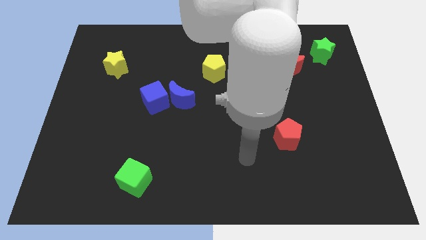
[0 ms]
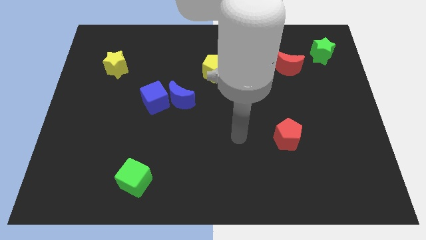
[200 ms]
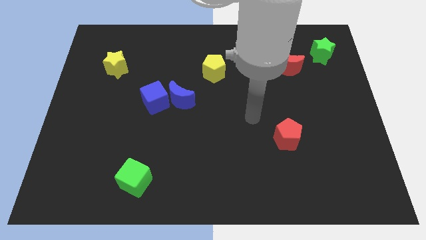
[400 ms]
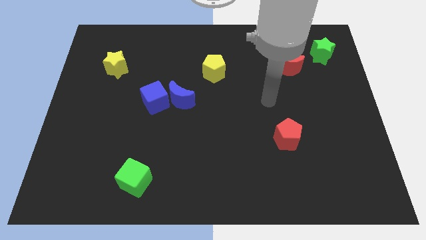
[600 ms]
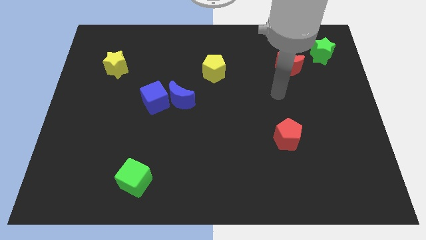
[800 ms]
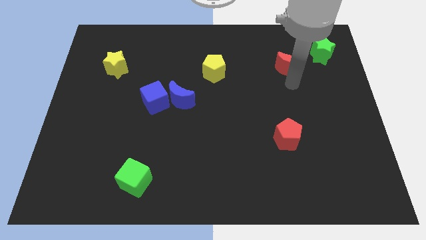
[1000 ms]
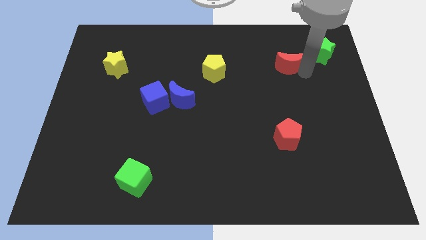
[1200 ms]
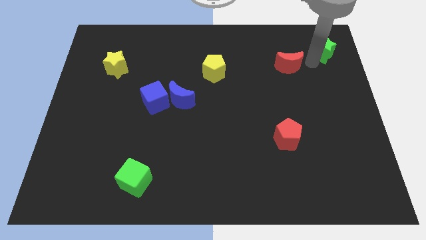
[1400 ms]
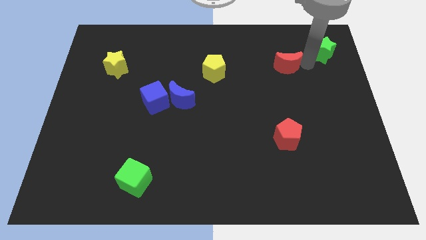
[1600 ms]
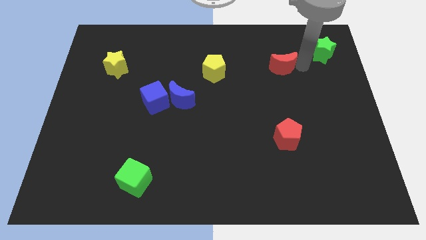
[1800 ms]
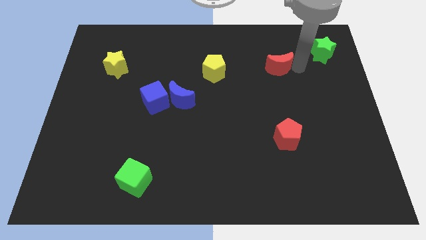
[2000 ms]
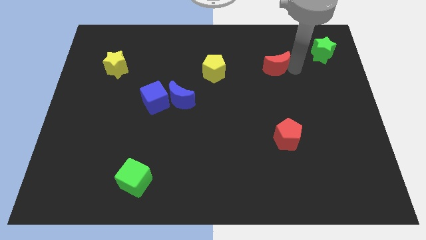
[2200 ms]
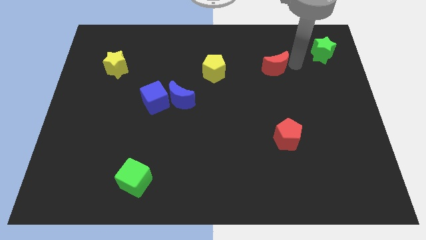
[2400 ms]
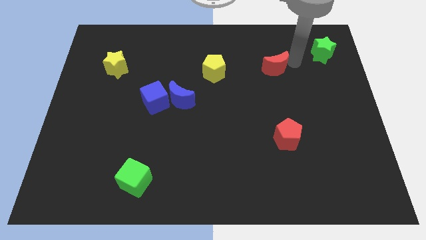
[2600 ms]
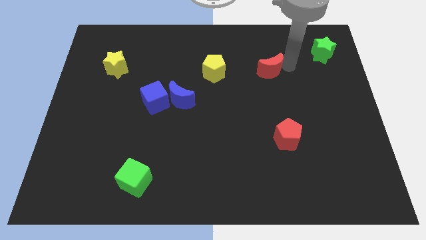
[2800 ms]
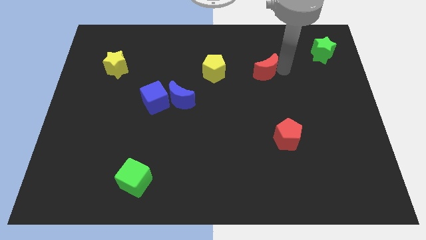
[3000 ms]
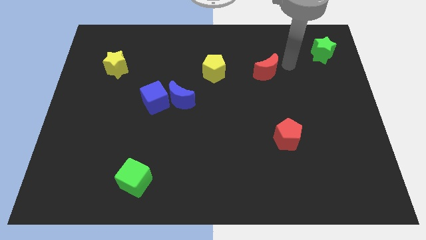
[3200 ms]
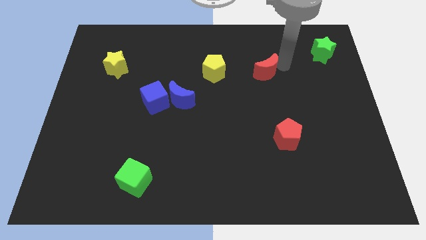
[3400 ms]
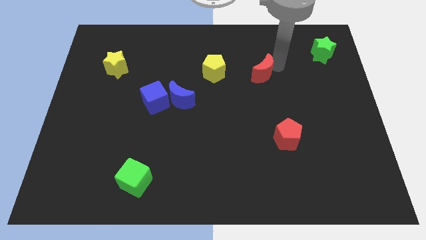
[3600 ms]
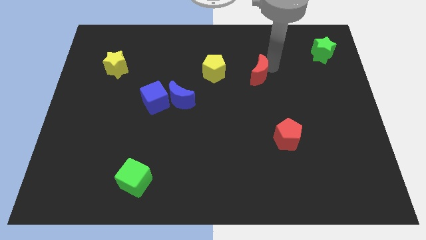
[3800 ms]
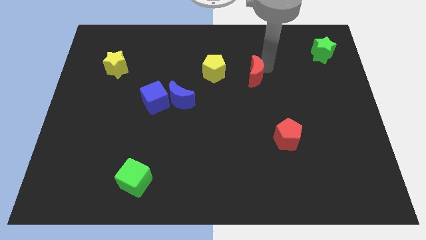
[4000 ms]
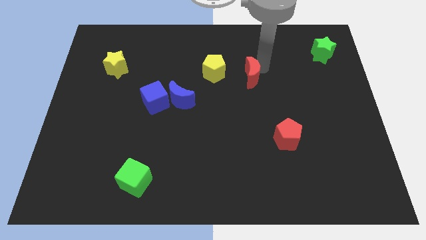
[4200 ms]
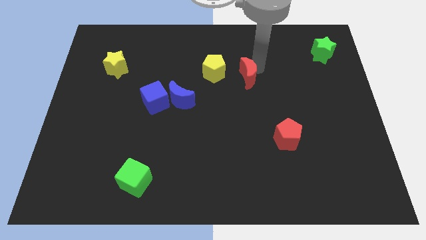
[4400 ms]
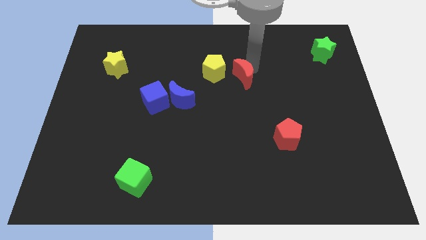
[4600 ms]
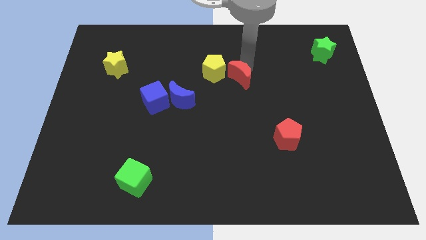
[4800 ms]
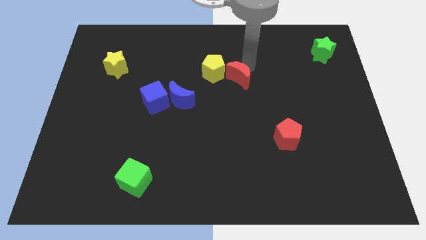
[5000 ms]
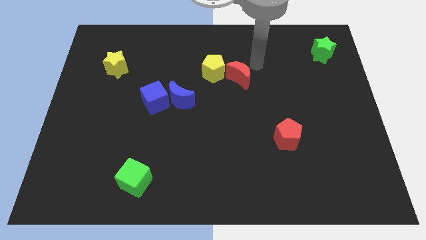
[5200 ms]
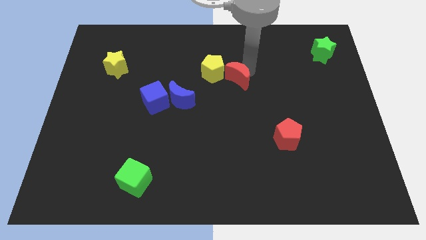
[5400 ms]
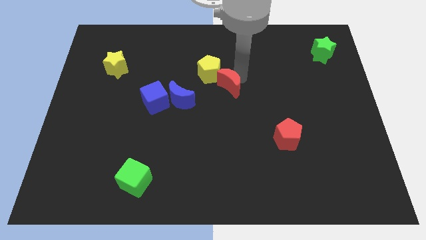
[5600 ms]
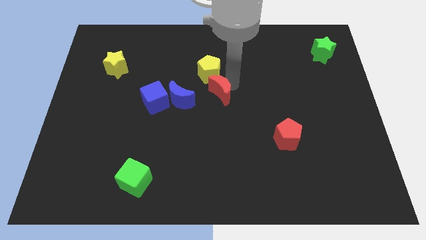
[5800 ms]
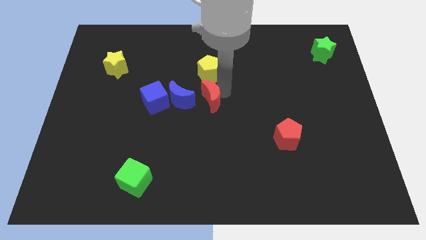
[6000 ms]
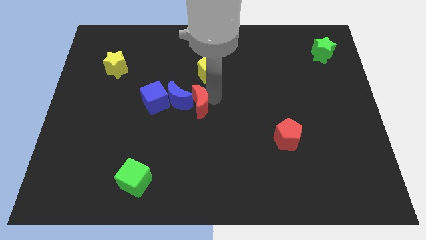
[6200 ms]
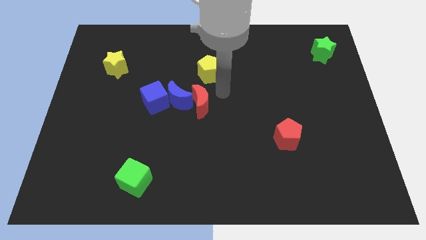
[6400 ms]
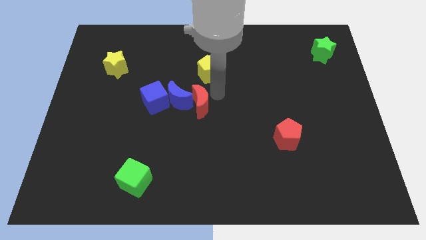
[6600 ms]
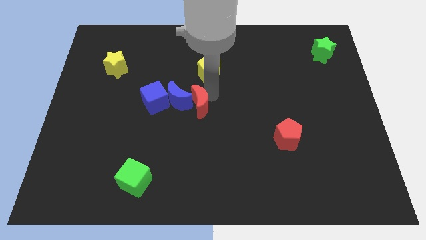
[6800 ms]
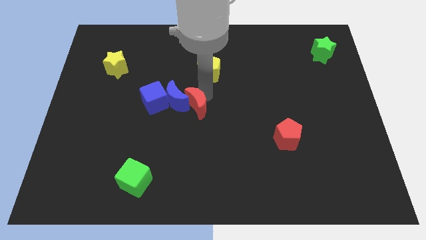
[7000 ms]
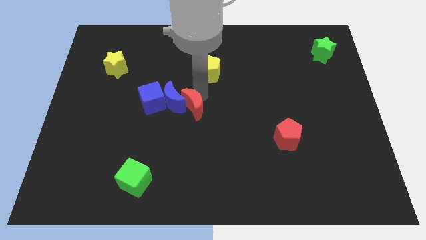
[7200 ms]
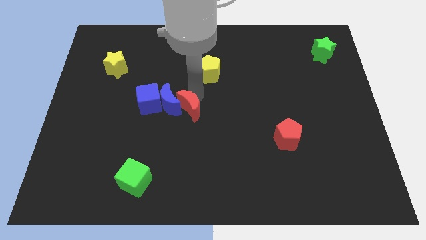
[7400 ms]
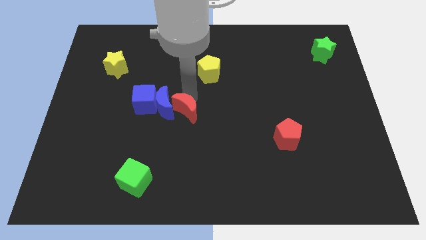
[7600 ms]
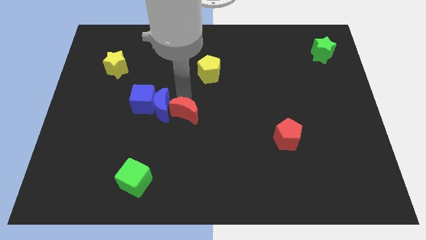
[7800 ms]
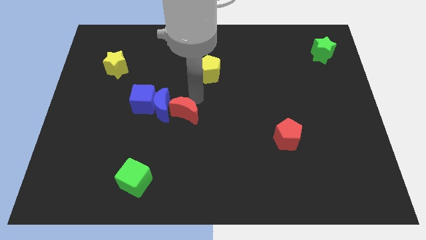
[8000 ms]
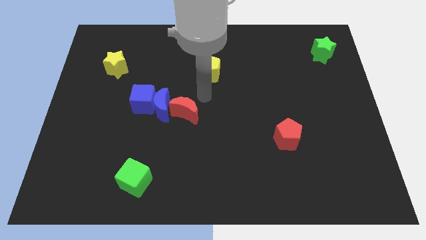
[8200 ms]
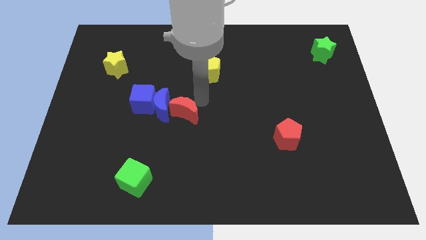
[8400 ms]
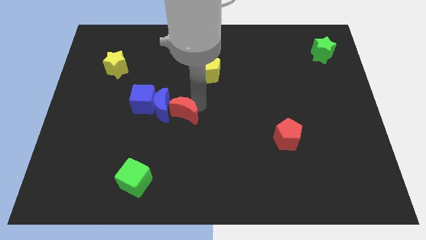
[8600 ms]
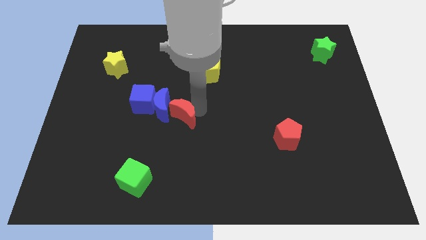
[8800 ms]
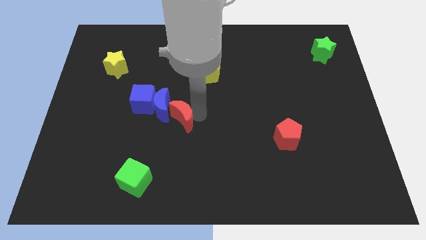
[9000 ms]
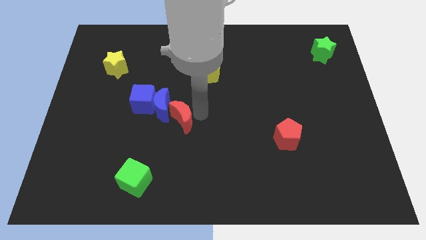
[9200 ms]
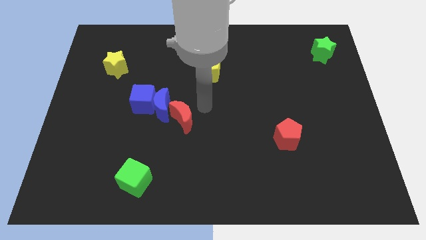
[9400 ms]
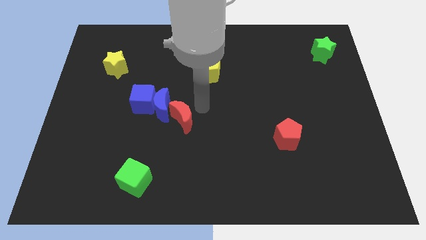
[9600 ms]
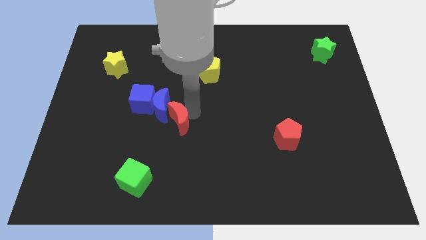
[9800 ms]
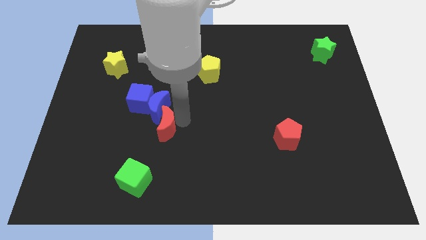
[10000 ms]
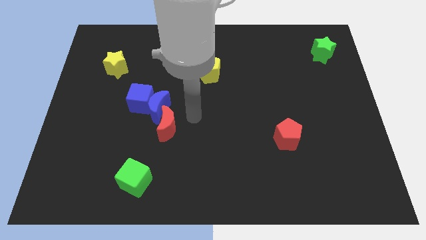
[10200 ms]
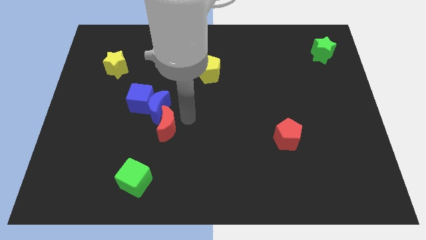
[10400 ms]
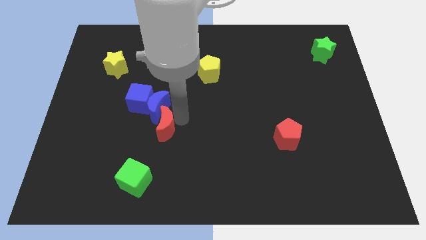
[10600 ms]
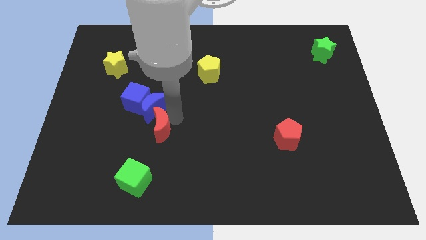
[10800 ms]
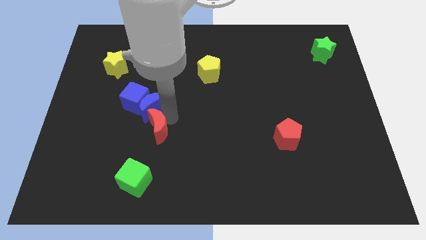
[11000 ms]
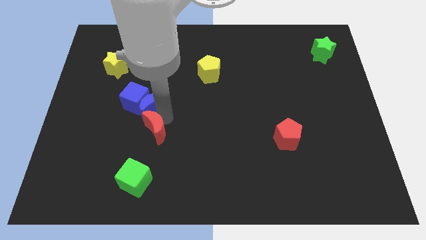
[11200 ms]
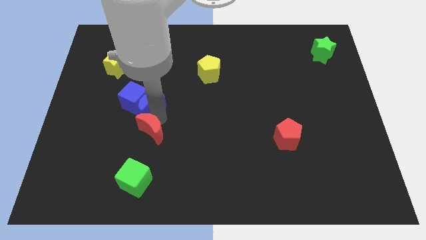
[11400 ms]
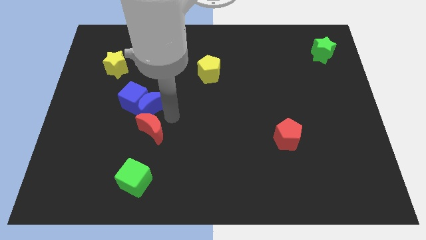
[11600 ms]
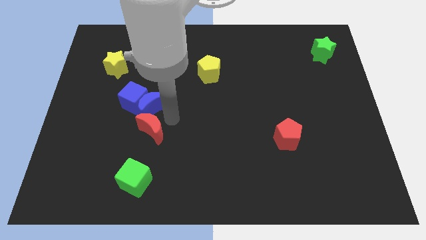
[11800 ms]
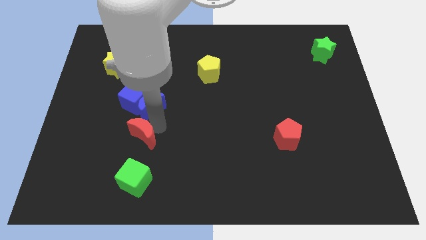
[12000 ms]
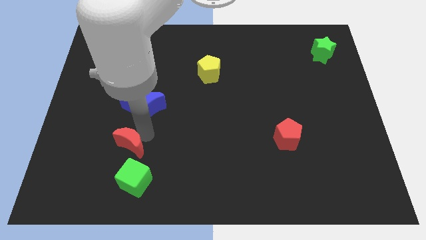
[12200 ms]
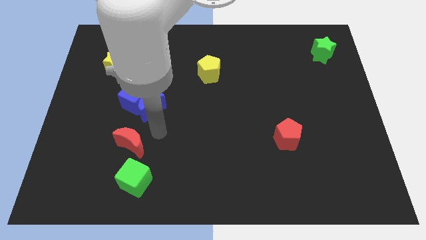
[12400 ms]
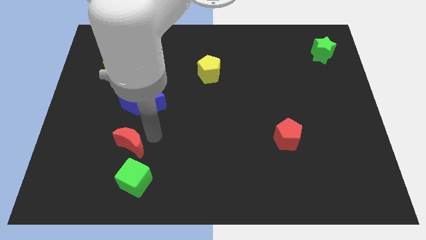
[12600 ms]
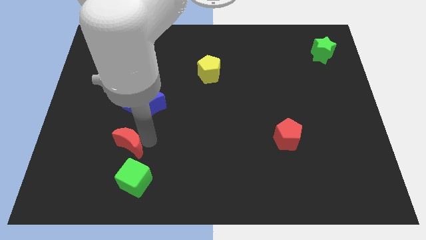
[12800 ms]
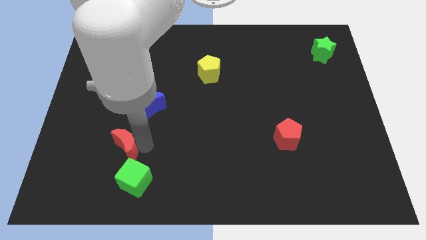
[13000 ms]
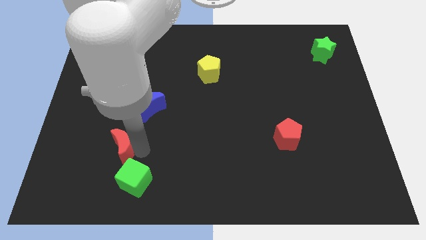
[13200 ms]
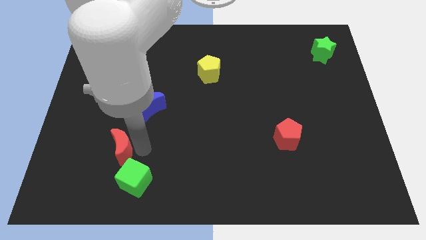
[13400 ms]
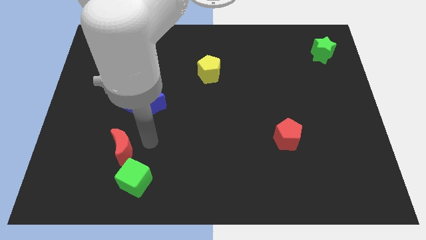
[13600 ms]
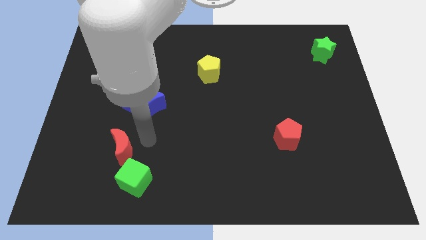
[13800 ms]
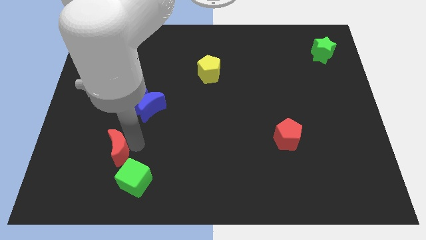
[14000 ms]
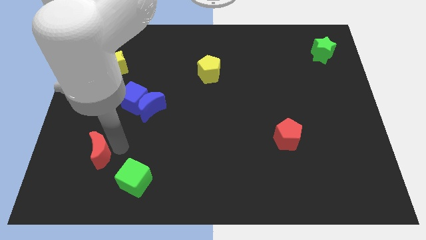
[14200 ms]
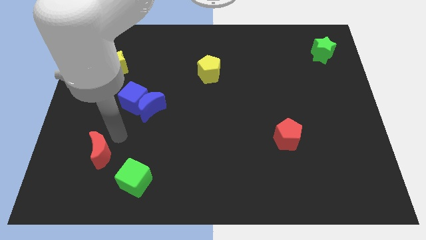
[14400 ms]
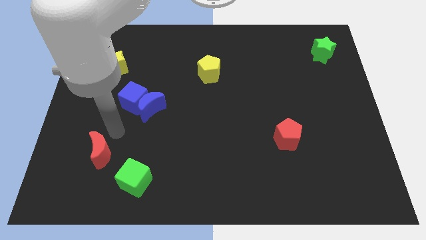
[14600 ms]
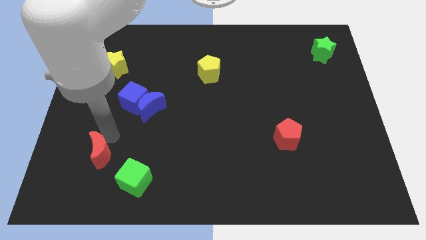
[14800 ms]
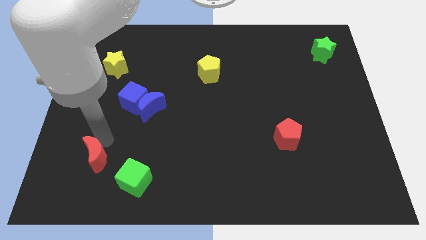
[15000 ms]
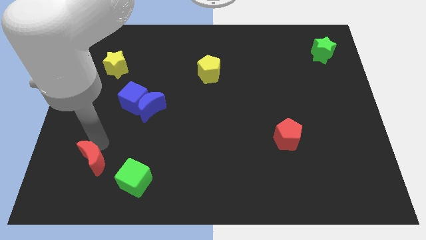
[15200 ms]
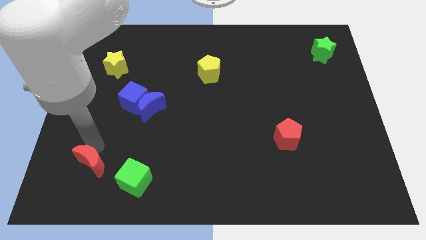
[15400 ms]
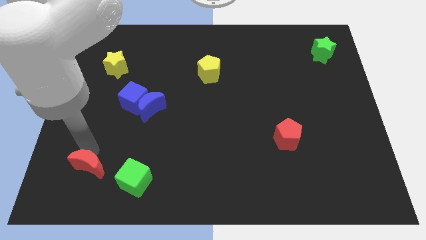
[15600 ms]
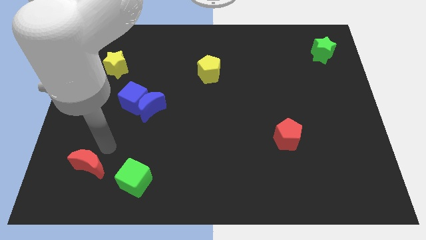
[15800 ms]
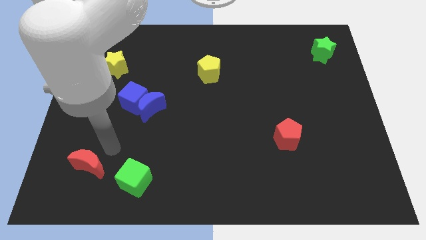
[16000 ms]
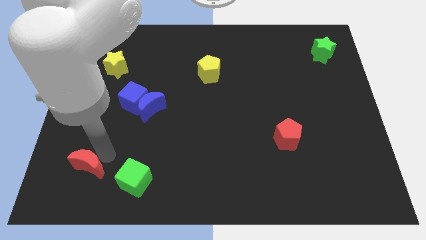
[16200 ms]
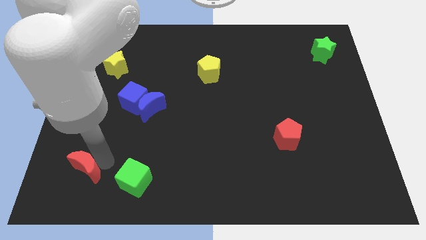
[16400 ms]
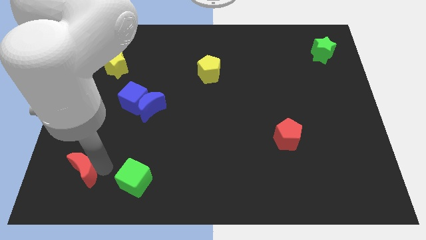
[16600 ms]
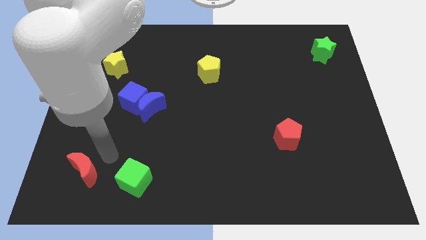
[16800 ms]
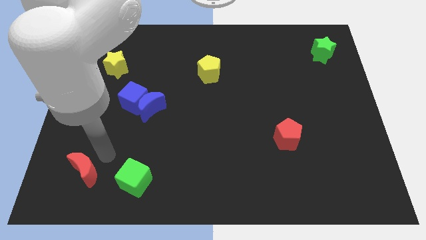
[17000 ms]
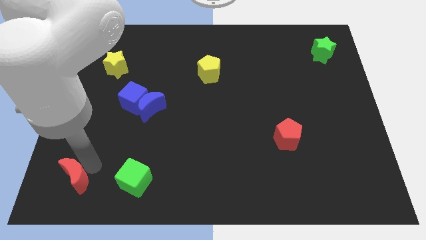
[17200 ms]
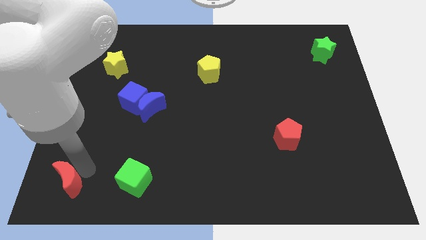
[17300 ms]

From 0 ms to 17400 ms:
move the red moon to the bottom left of the board
